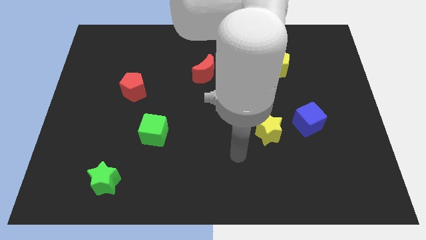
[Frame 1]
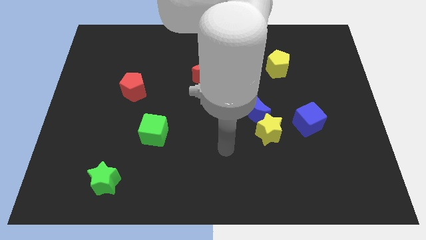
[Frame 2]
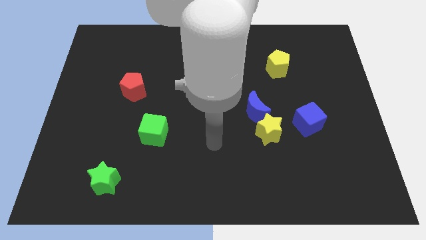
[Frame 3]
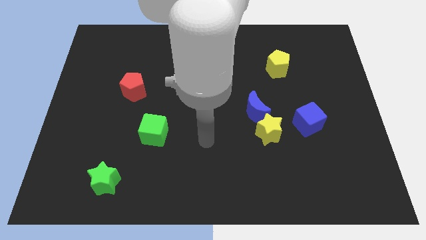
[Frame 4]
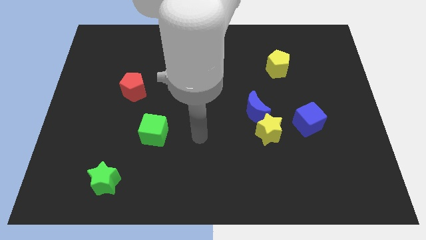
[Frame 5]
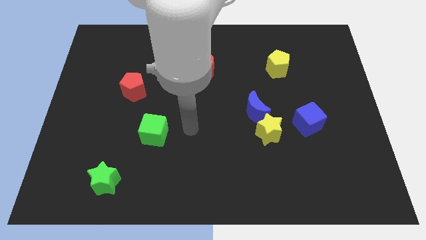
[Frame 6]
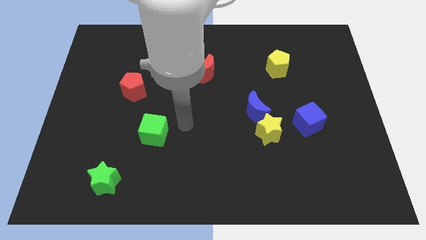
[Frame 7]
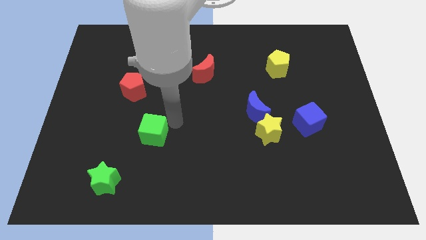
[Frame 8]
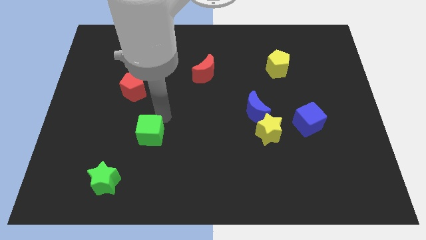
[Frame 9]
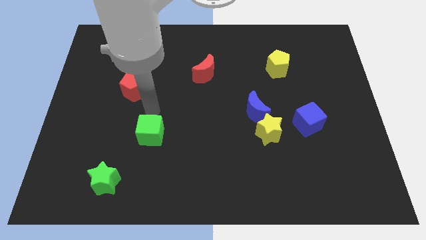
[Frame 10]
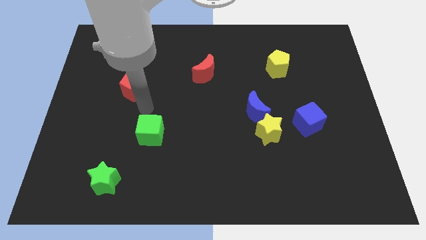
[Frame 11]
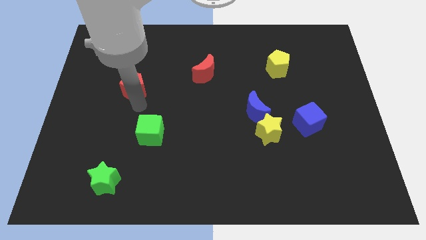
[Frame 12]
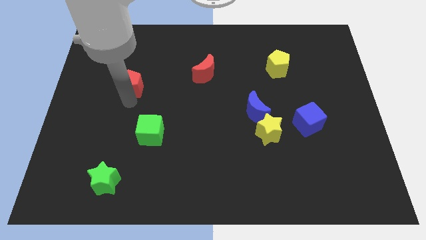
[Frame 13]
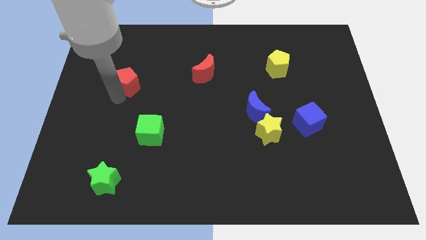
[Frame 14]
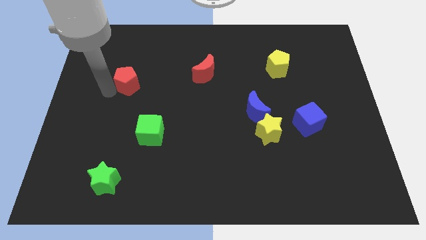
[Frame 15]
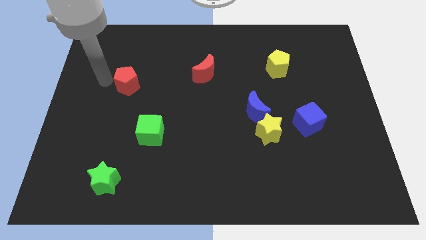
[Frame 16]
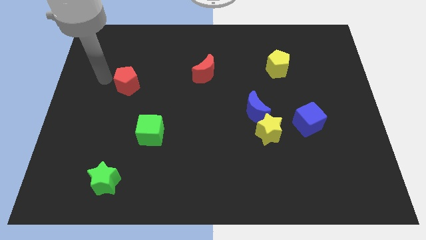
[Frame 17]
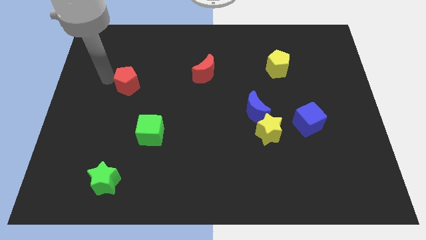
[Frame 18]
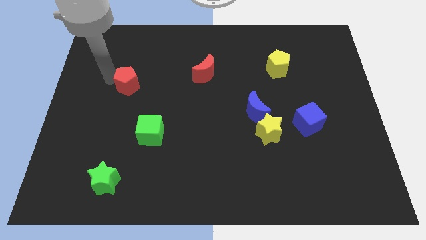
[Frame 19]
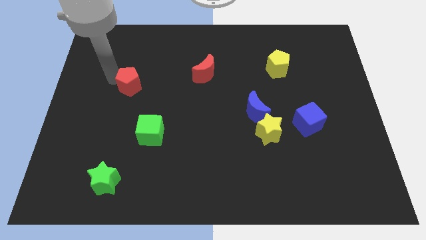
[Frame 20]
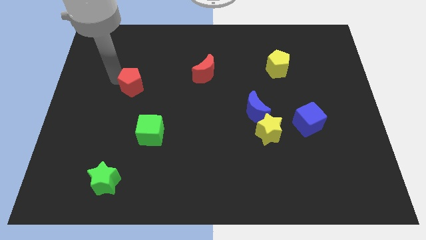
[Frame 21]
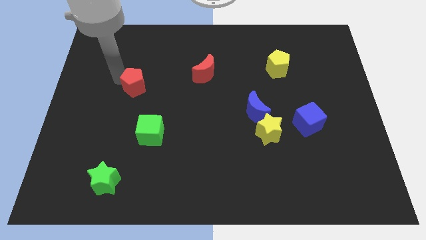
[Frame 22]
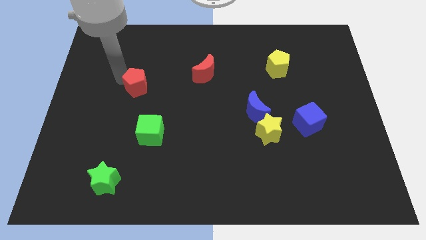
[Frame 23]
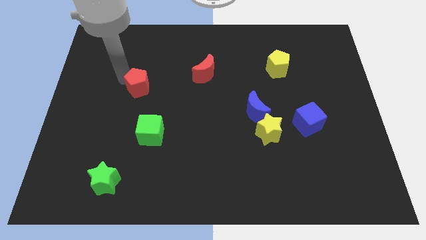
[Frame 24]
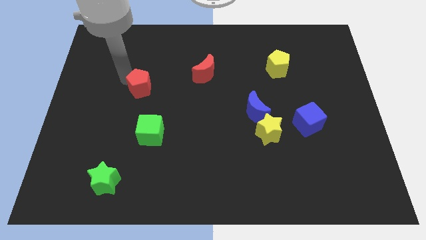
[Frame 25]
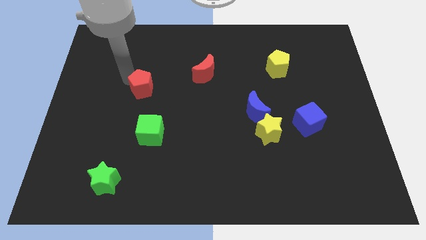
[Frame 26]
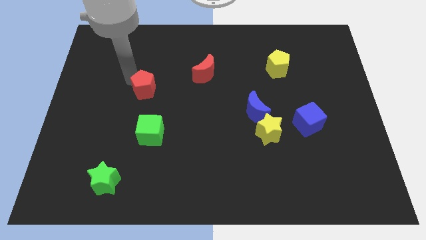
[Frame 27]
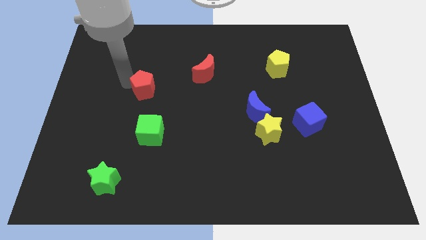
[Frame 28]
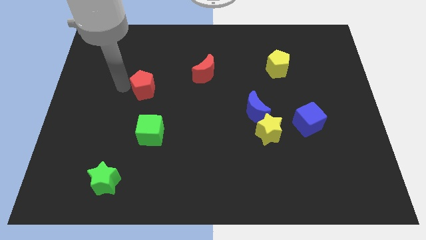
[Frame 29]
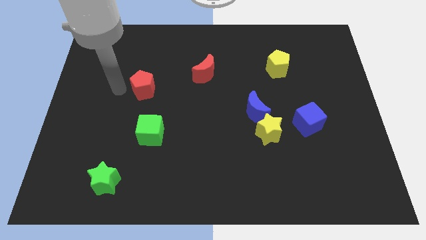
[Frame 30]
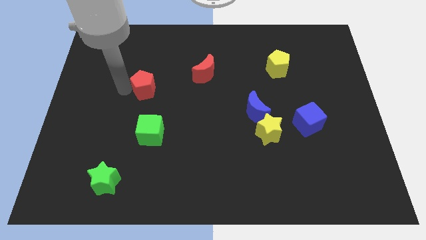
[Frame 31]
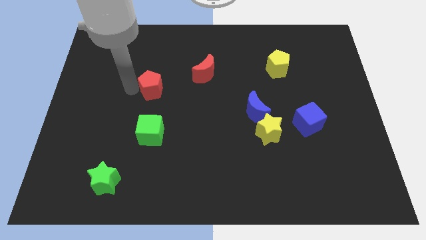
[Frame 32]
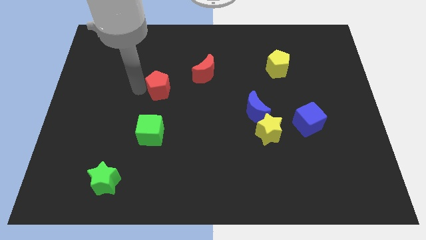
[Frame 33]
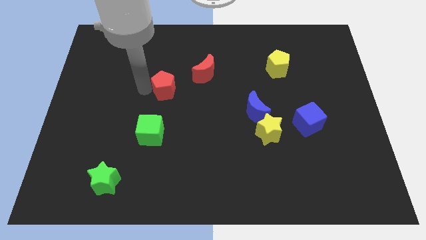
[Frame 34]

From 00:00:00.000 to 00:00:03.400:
move the red pentagon to the right a bit

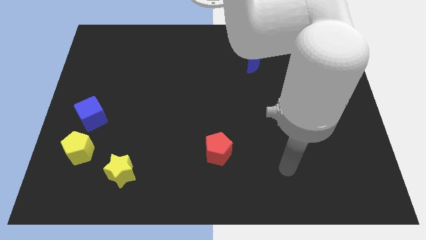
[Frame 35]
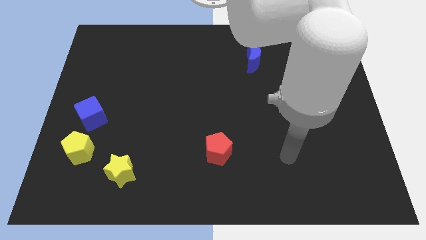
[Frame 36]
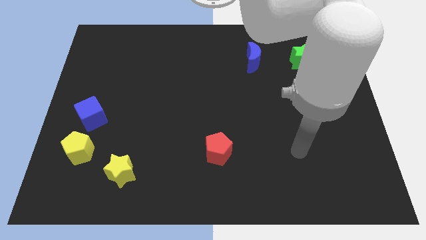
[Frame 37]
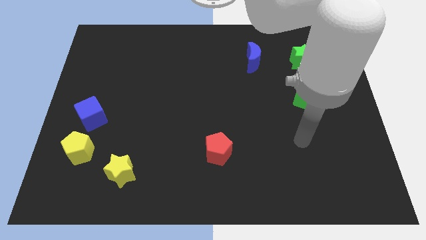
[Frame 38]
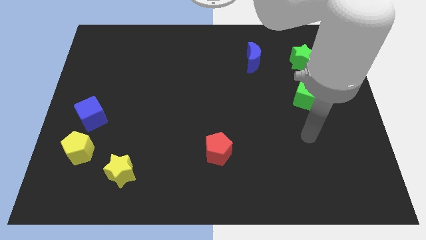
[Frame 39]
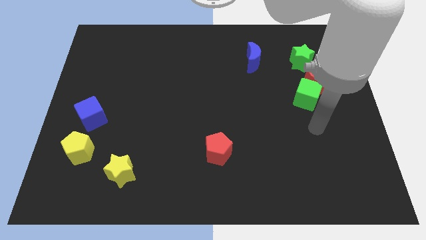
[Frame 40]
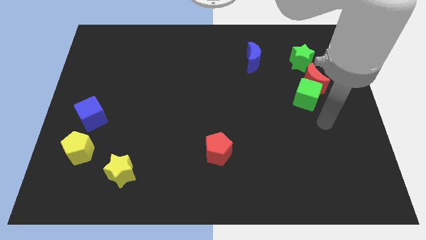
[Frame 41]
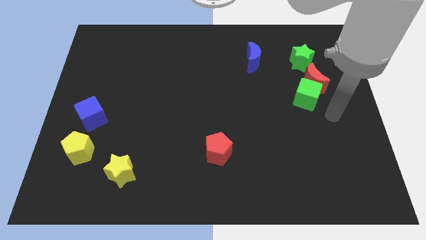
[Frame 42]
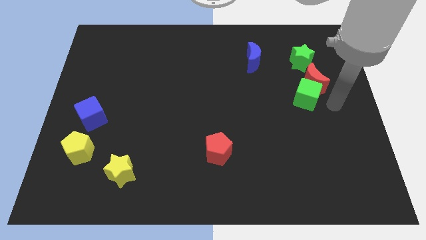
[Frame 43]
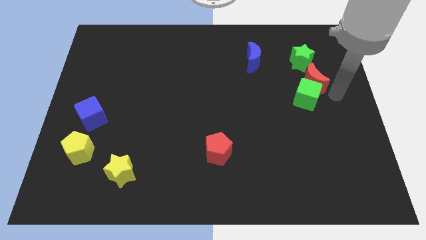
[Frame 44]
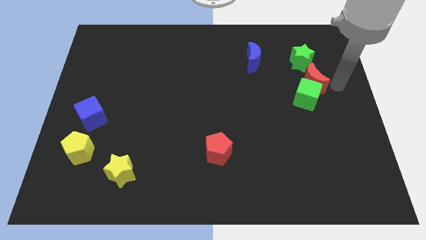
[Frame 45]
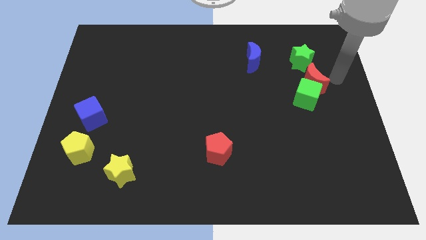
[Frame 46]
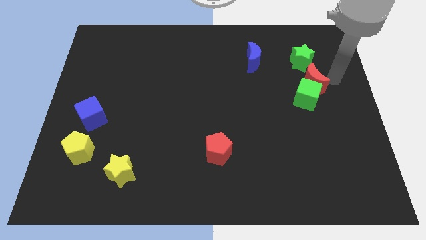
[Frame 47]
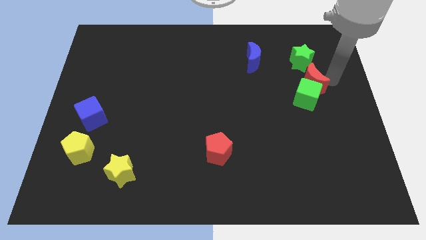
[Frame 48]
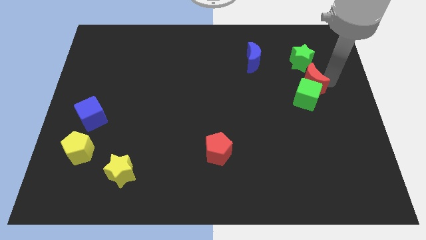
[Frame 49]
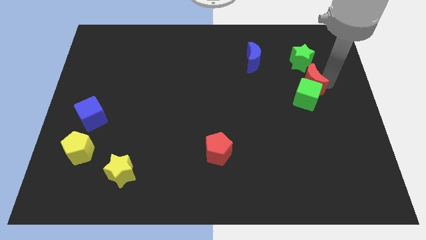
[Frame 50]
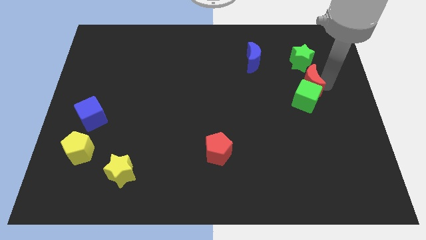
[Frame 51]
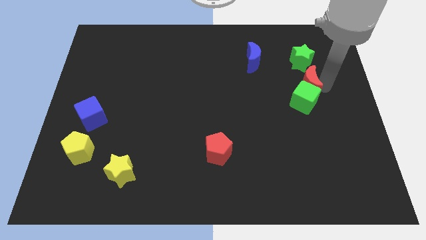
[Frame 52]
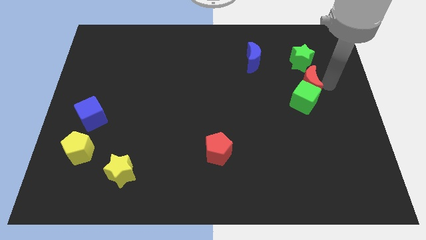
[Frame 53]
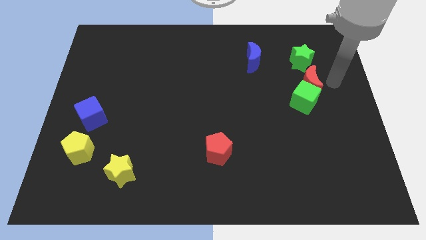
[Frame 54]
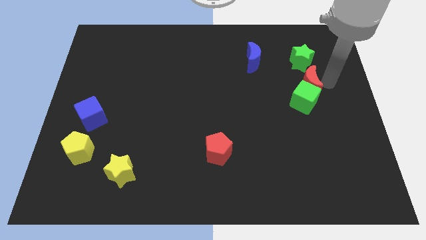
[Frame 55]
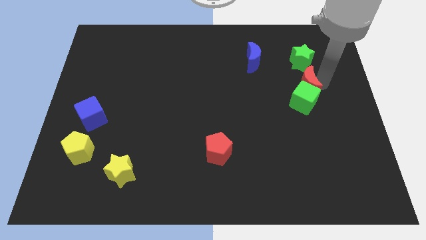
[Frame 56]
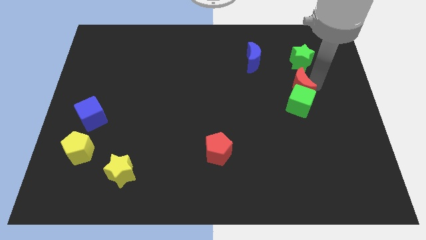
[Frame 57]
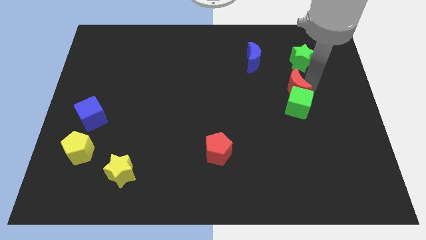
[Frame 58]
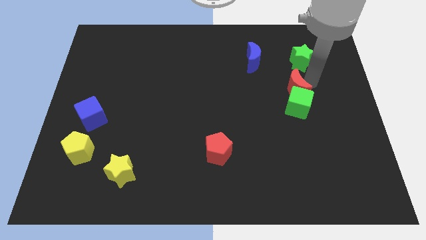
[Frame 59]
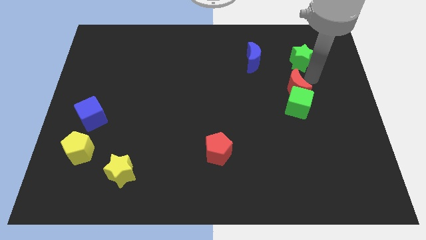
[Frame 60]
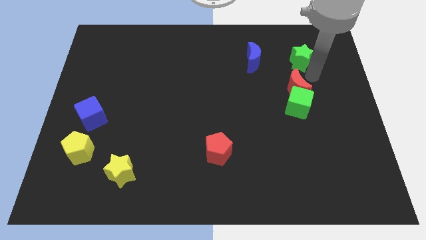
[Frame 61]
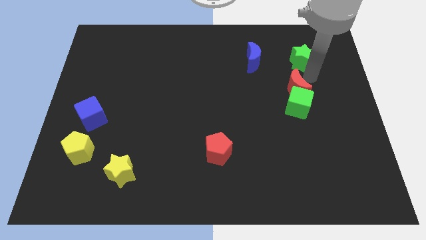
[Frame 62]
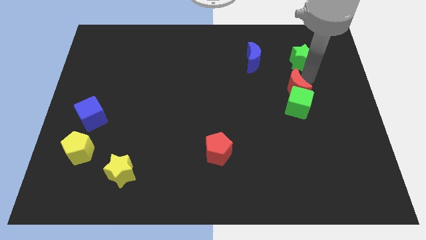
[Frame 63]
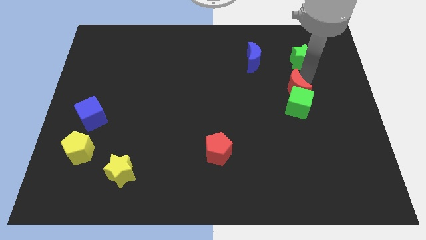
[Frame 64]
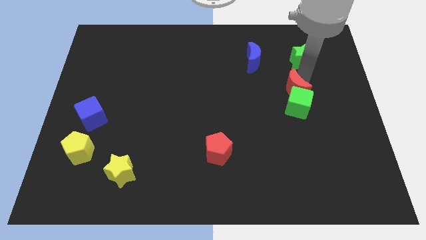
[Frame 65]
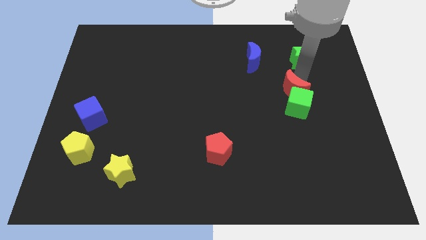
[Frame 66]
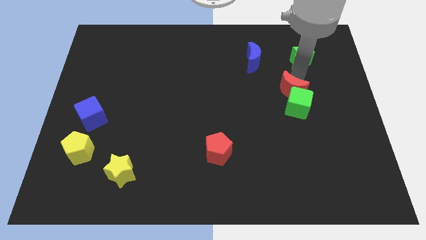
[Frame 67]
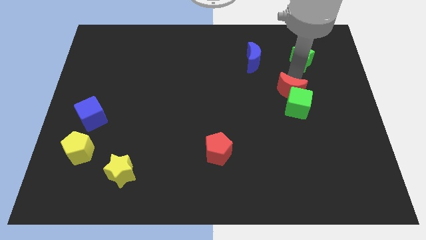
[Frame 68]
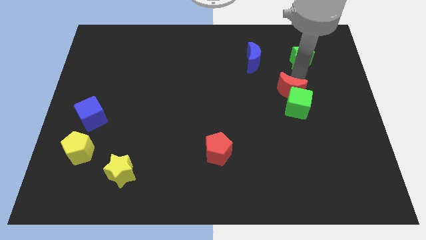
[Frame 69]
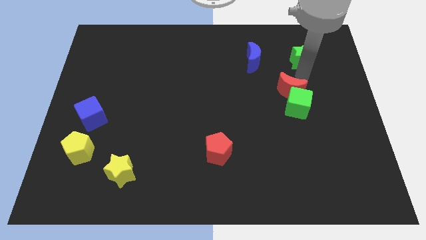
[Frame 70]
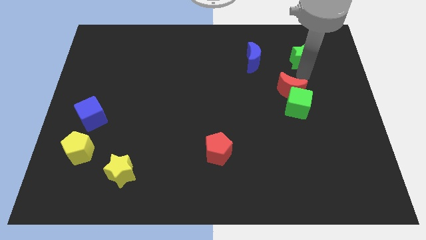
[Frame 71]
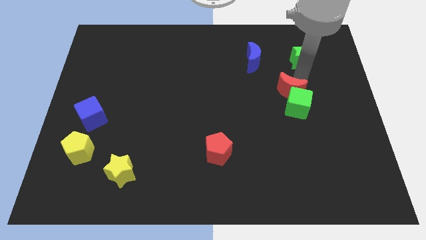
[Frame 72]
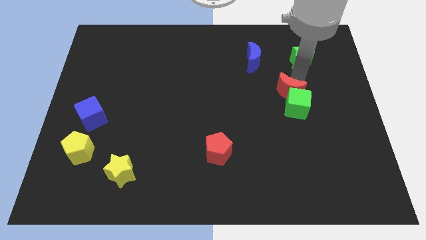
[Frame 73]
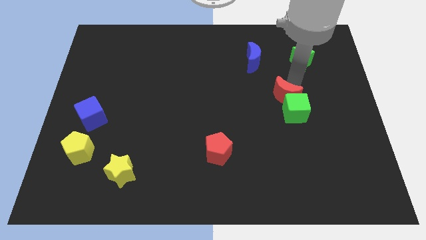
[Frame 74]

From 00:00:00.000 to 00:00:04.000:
slightly slide the red moon down and then to the left

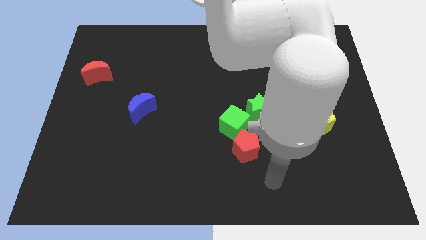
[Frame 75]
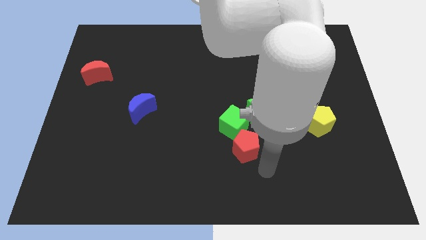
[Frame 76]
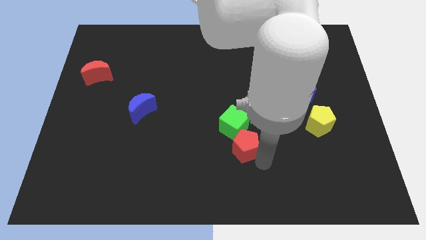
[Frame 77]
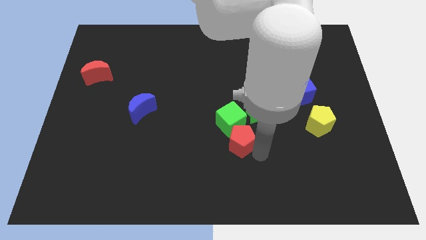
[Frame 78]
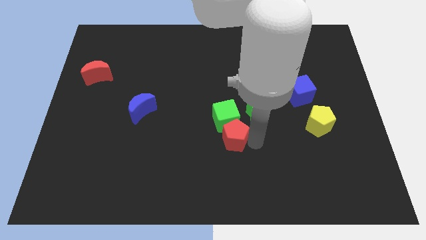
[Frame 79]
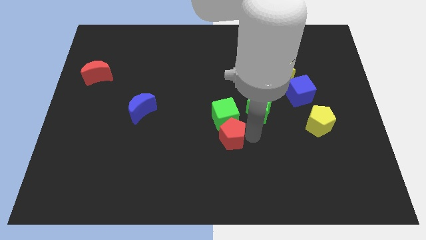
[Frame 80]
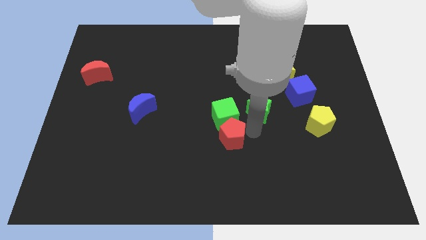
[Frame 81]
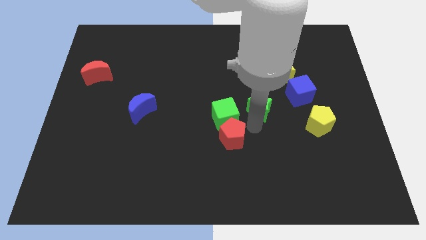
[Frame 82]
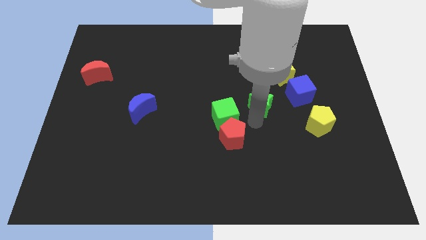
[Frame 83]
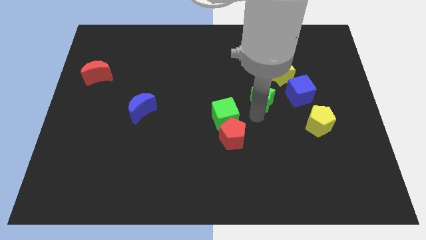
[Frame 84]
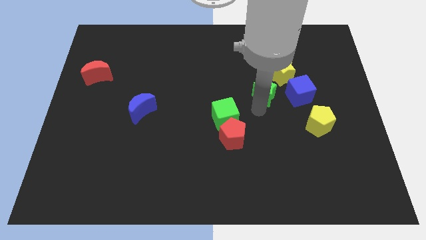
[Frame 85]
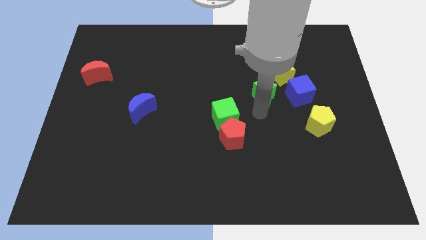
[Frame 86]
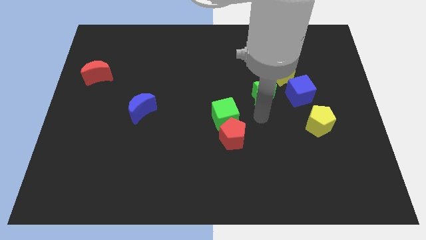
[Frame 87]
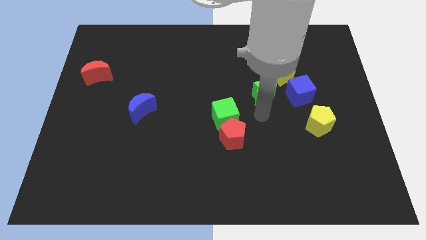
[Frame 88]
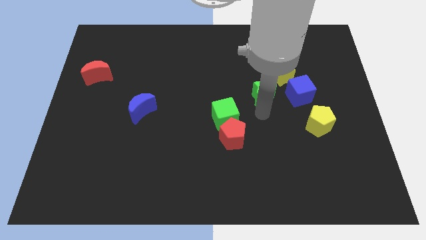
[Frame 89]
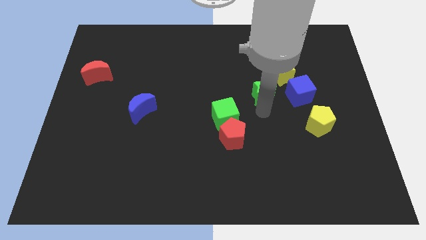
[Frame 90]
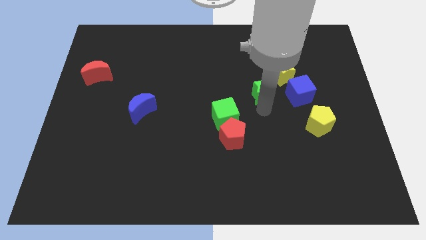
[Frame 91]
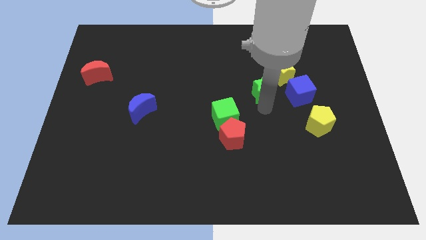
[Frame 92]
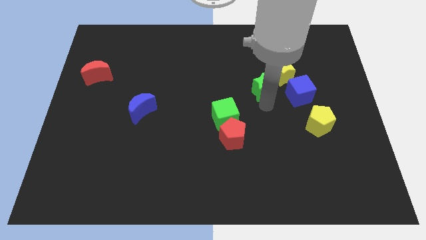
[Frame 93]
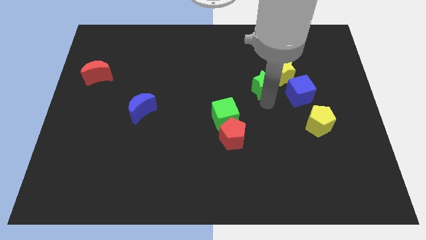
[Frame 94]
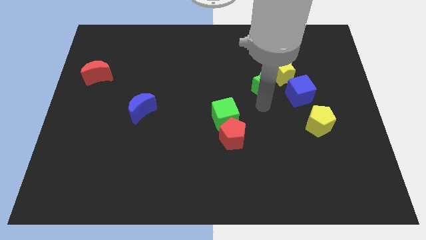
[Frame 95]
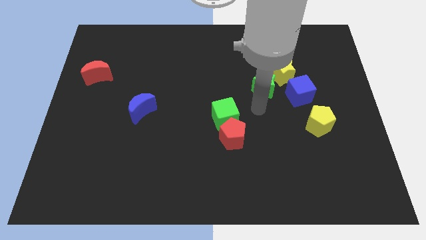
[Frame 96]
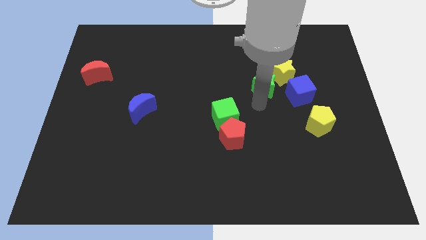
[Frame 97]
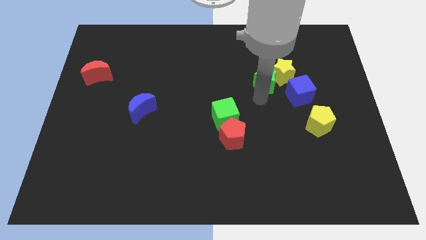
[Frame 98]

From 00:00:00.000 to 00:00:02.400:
slightly slide the green star up and then right
